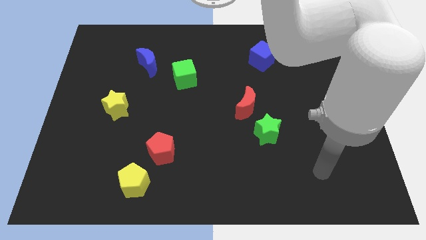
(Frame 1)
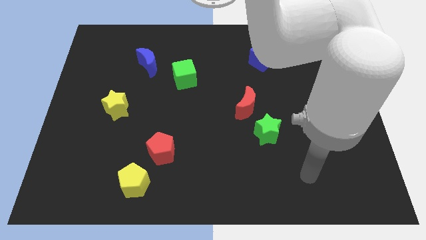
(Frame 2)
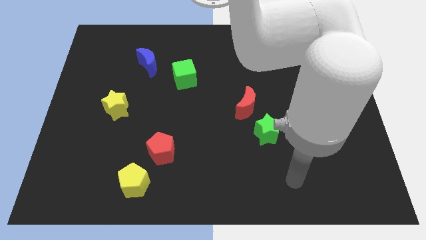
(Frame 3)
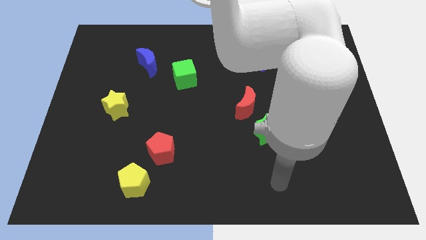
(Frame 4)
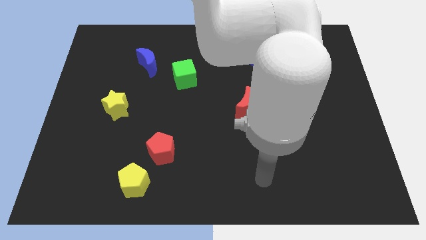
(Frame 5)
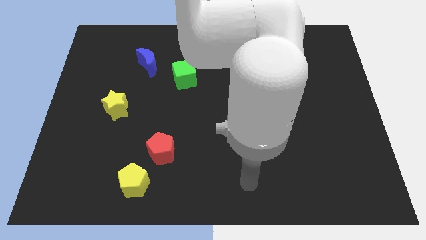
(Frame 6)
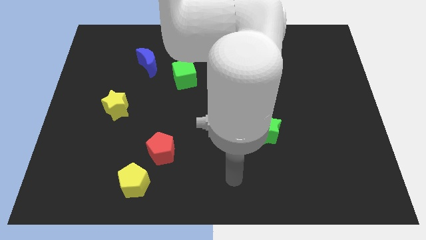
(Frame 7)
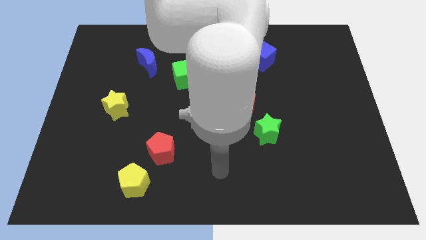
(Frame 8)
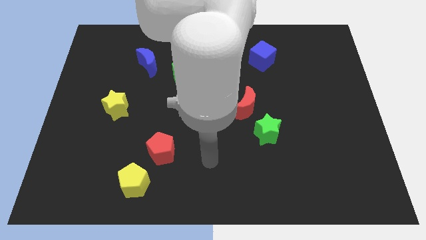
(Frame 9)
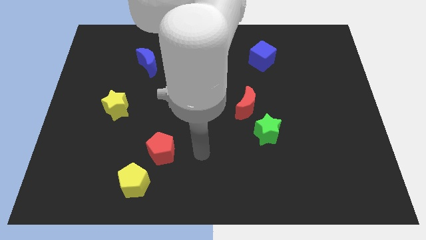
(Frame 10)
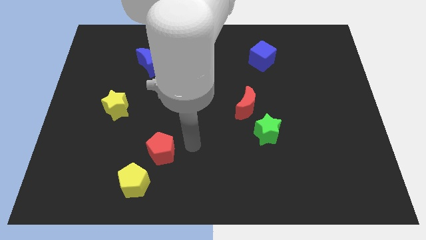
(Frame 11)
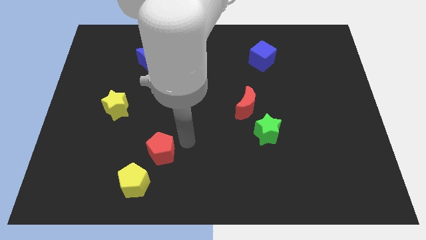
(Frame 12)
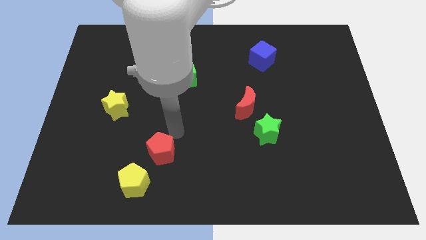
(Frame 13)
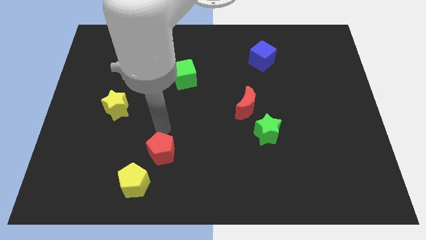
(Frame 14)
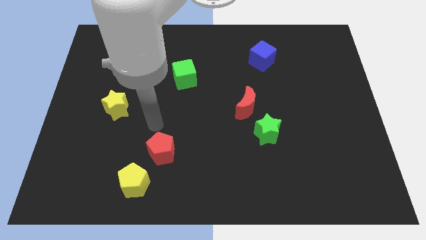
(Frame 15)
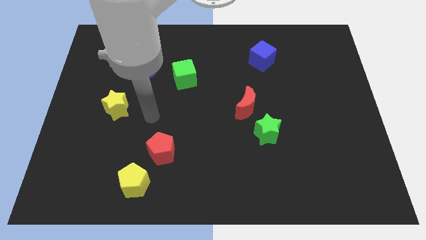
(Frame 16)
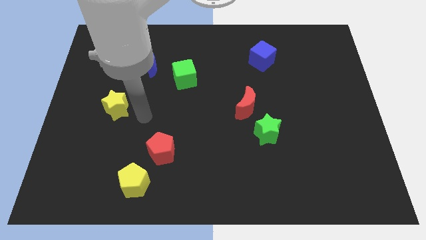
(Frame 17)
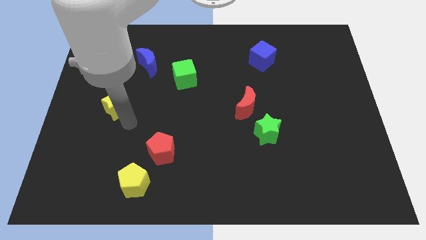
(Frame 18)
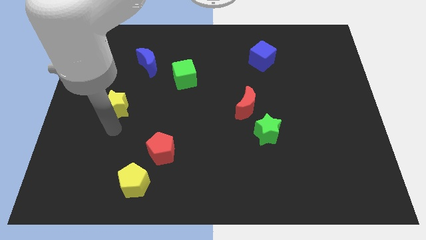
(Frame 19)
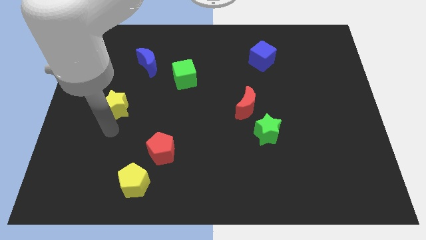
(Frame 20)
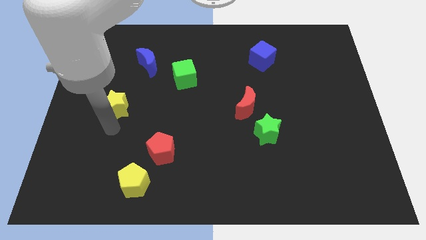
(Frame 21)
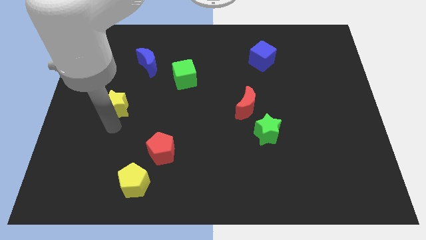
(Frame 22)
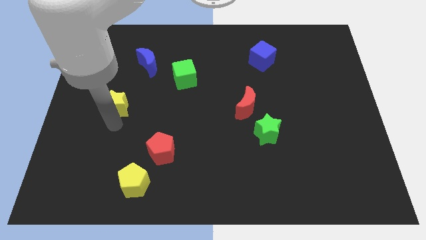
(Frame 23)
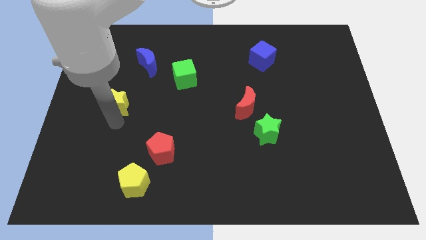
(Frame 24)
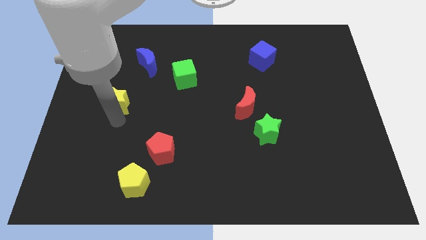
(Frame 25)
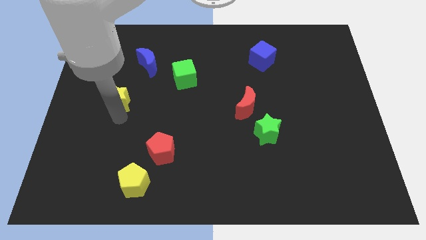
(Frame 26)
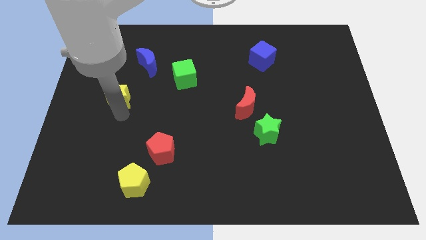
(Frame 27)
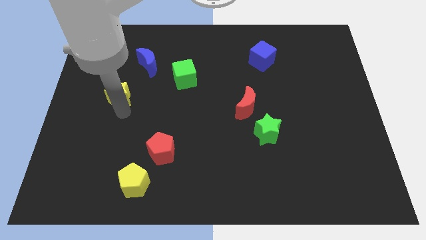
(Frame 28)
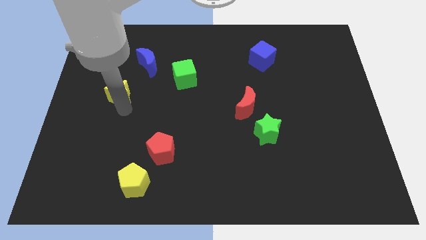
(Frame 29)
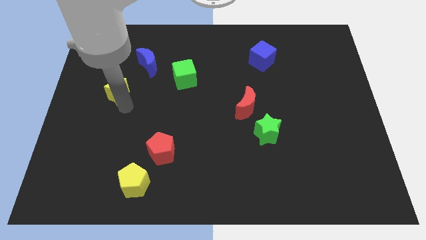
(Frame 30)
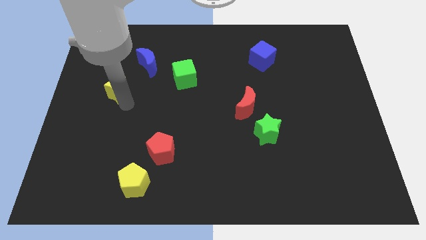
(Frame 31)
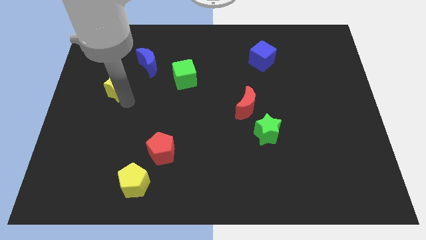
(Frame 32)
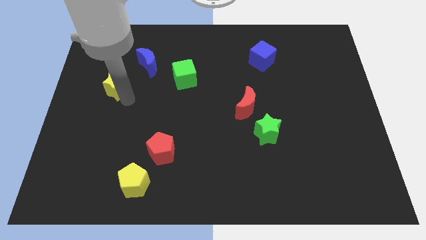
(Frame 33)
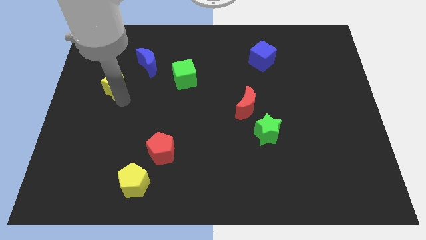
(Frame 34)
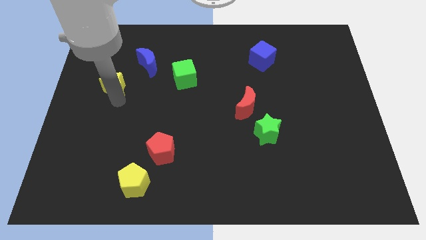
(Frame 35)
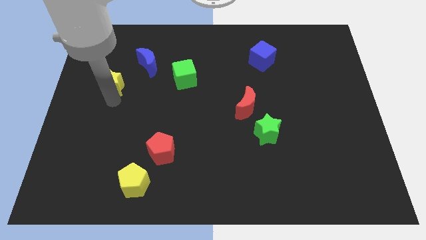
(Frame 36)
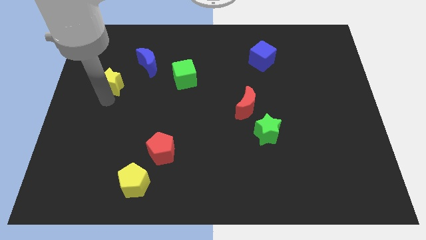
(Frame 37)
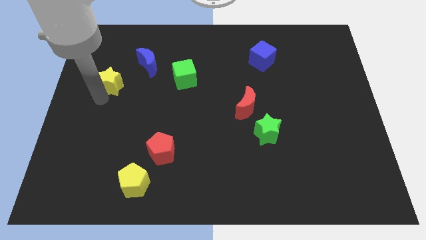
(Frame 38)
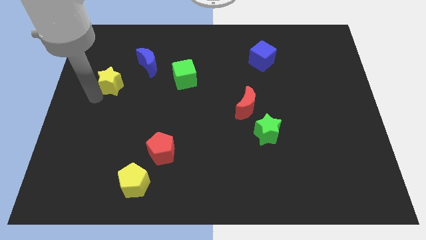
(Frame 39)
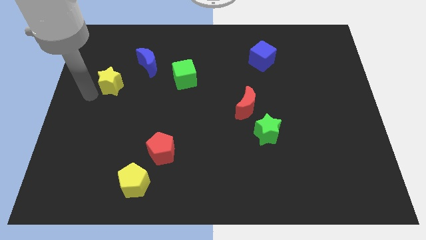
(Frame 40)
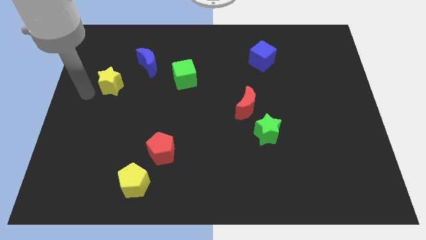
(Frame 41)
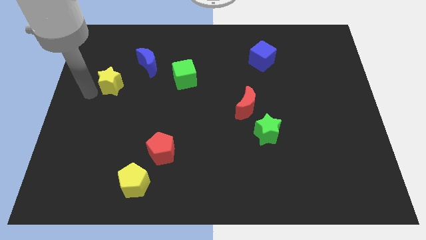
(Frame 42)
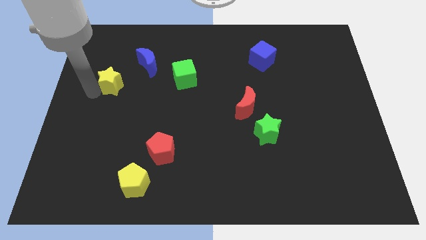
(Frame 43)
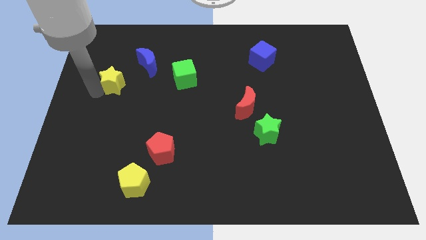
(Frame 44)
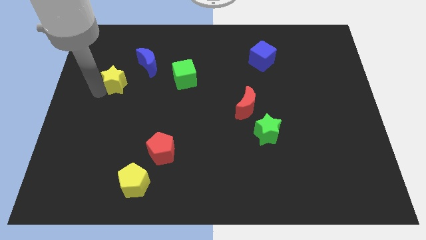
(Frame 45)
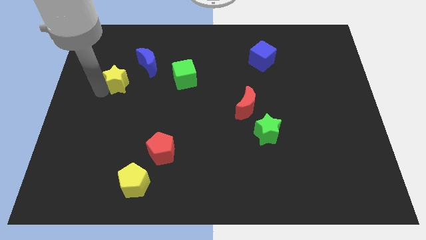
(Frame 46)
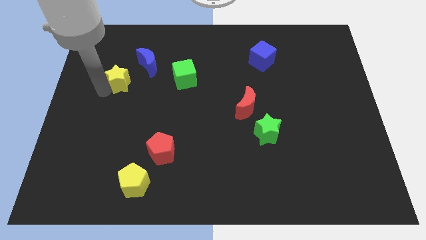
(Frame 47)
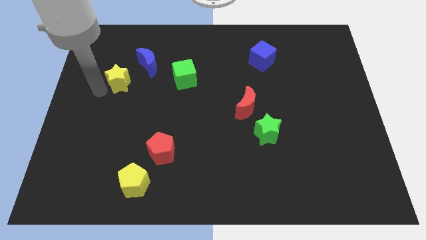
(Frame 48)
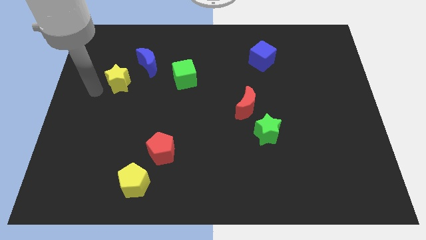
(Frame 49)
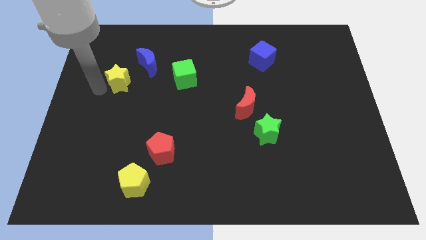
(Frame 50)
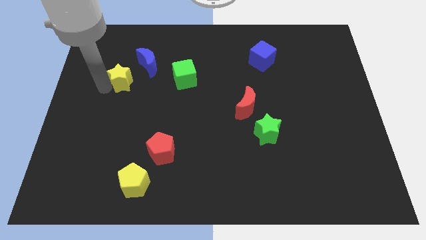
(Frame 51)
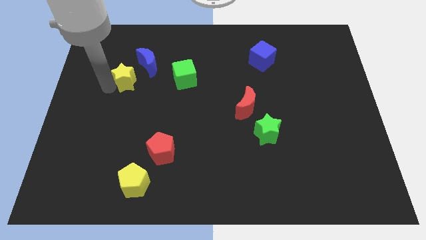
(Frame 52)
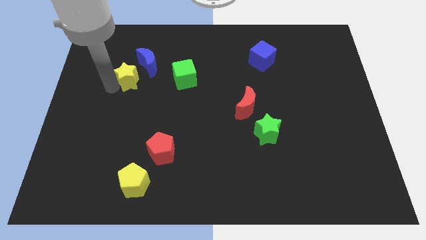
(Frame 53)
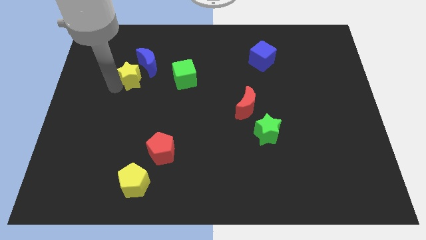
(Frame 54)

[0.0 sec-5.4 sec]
push the yellow star towards the blue moon

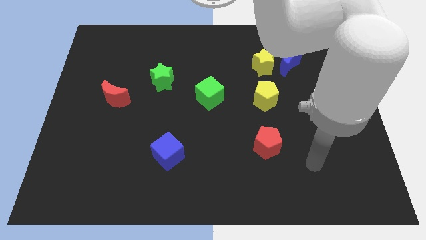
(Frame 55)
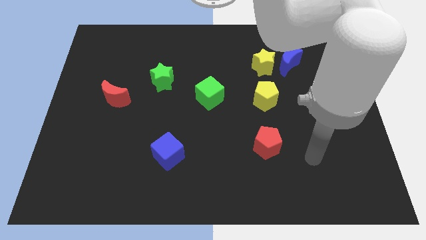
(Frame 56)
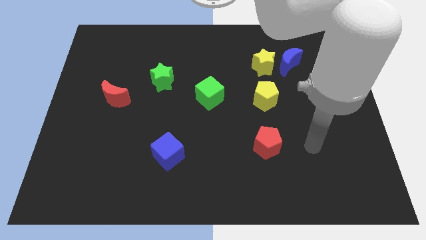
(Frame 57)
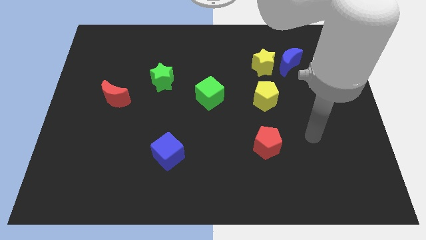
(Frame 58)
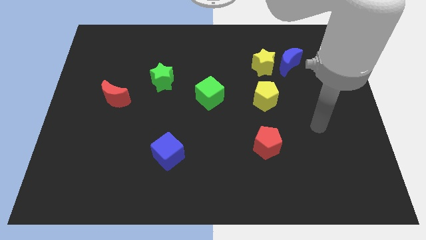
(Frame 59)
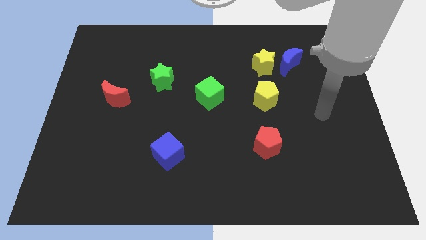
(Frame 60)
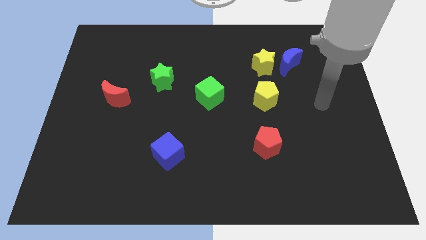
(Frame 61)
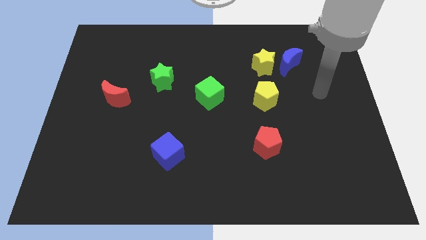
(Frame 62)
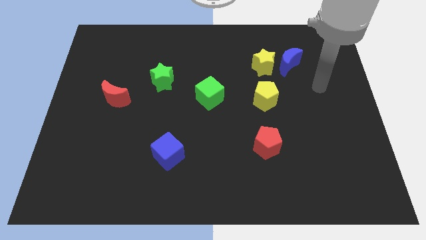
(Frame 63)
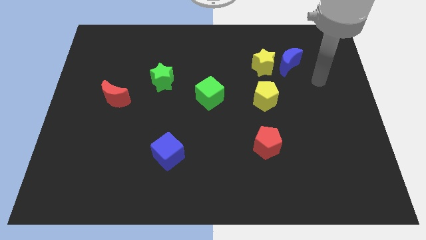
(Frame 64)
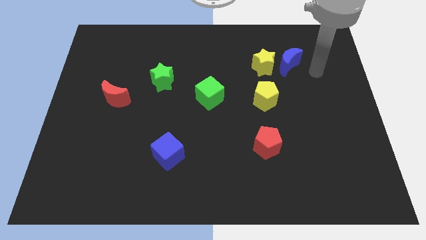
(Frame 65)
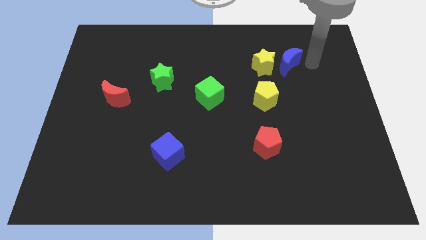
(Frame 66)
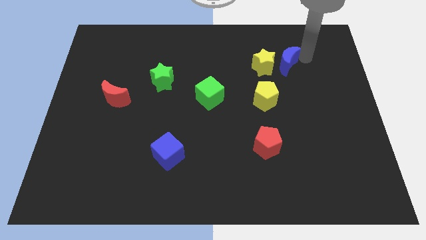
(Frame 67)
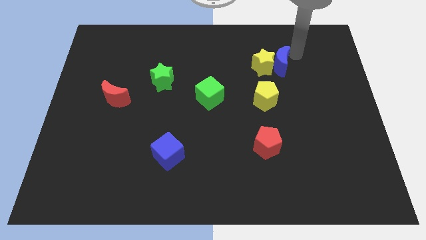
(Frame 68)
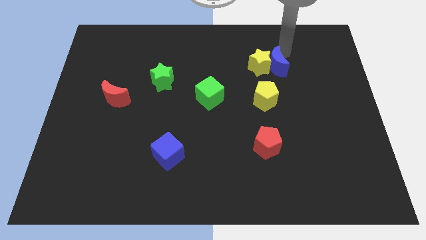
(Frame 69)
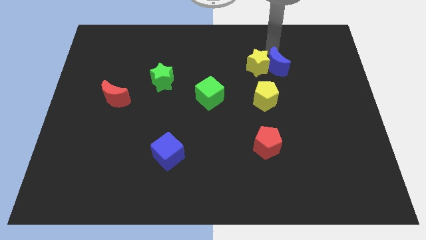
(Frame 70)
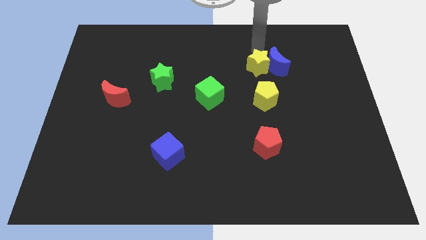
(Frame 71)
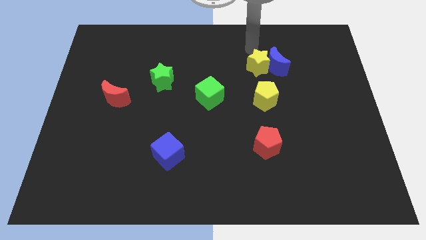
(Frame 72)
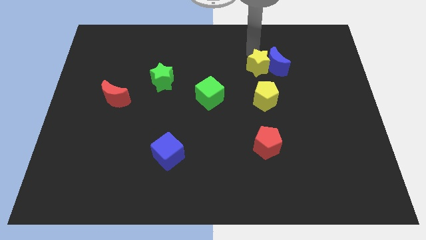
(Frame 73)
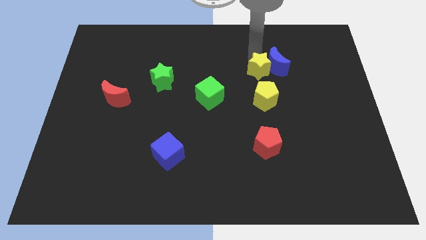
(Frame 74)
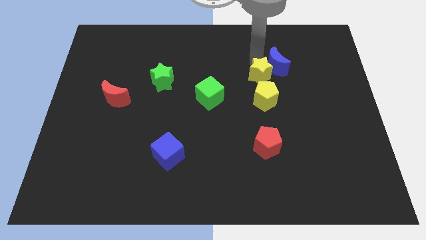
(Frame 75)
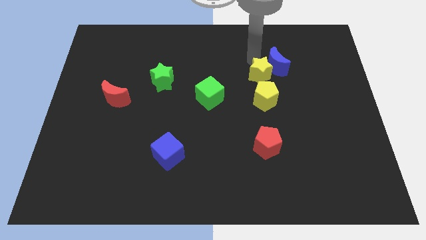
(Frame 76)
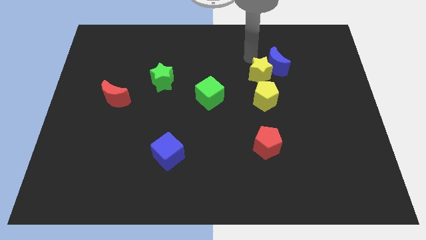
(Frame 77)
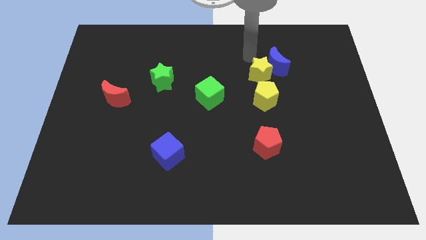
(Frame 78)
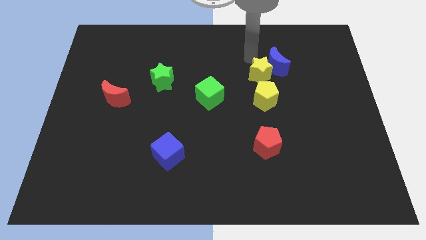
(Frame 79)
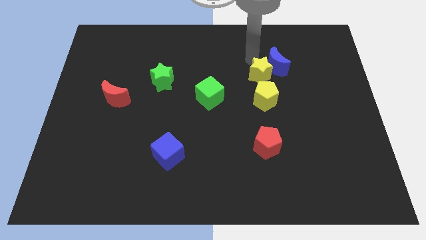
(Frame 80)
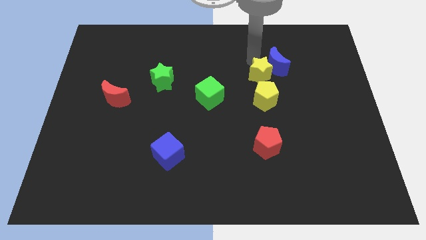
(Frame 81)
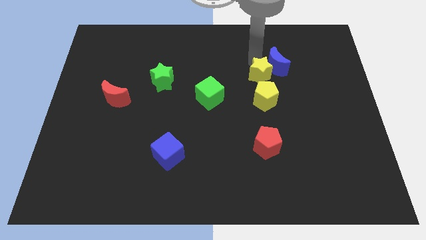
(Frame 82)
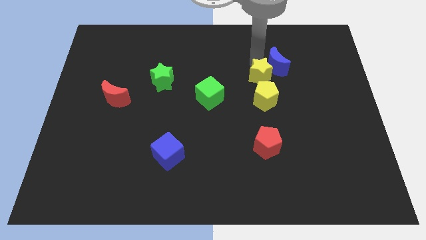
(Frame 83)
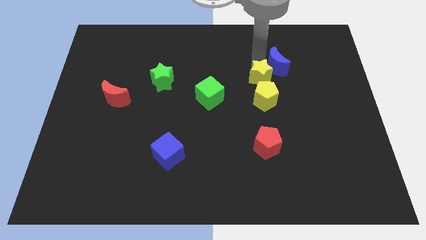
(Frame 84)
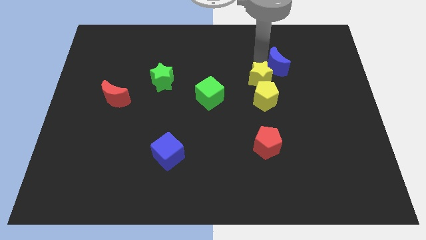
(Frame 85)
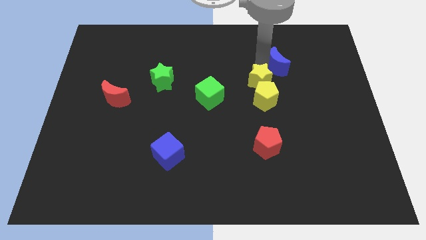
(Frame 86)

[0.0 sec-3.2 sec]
slide the yellow star to the yellow pentagon
